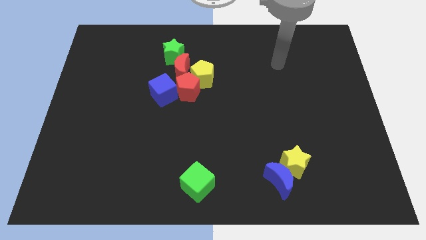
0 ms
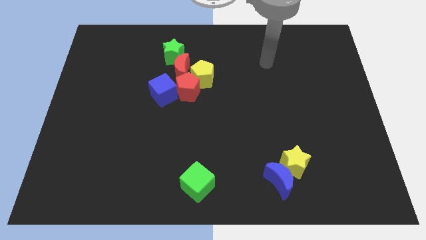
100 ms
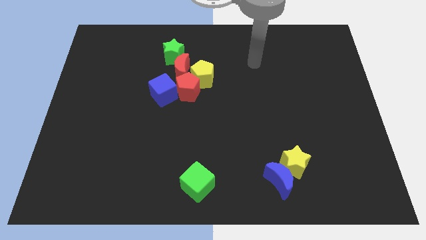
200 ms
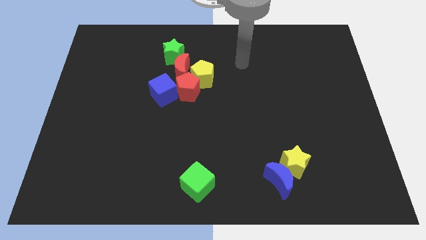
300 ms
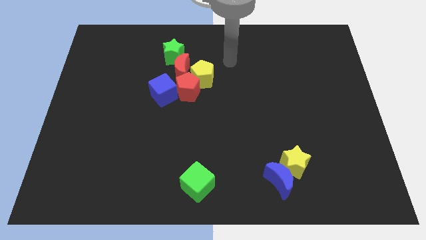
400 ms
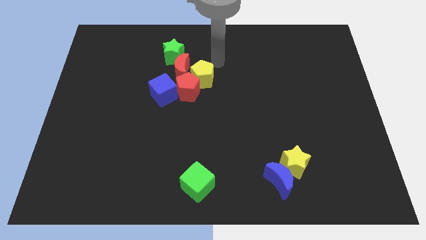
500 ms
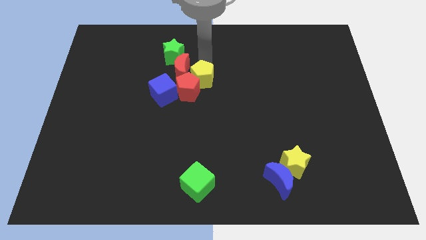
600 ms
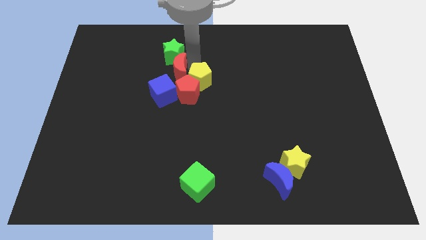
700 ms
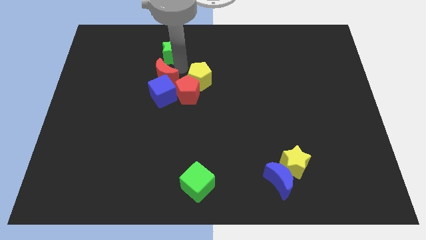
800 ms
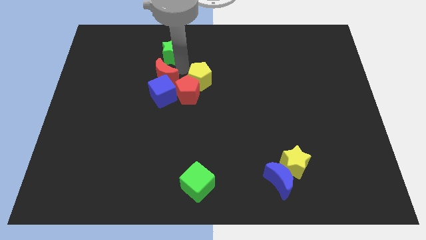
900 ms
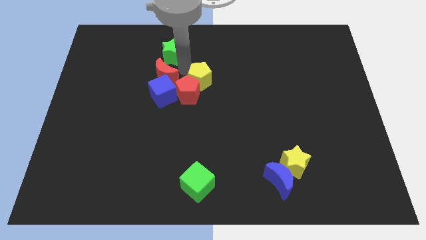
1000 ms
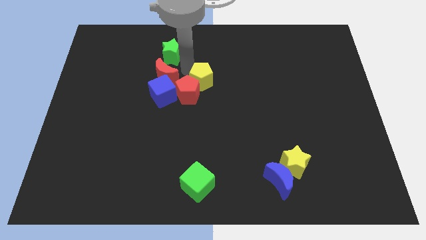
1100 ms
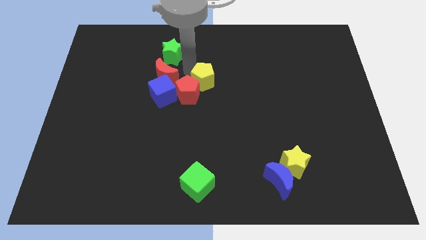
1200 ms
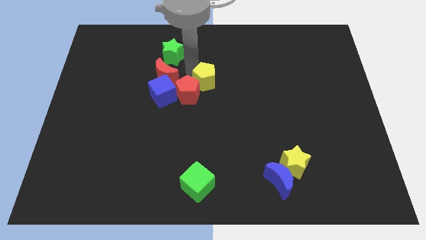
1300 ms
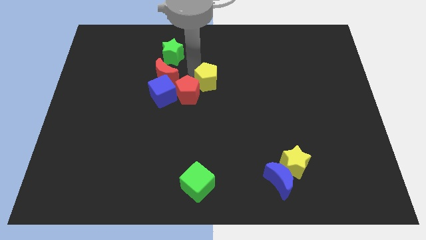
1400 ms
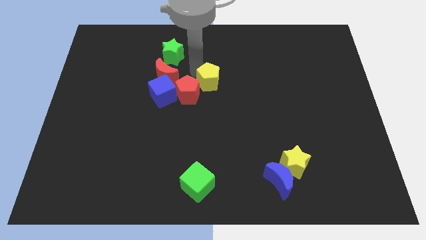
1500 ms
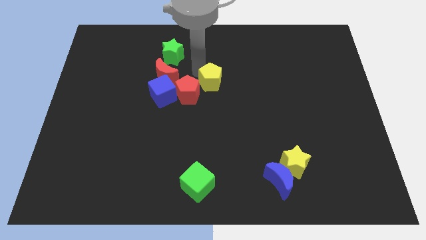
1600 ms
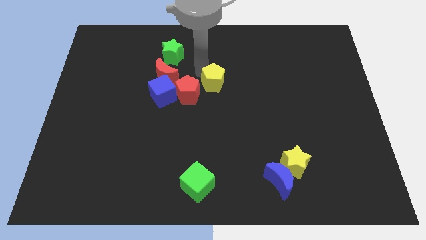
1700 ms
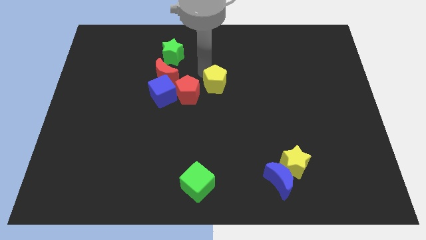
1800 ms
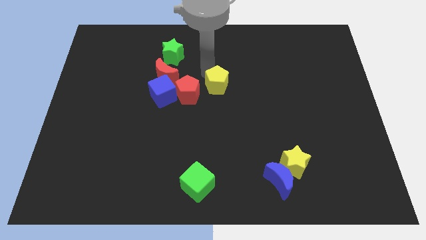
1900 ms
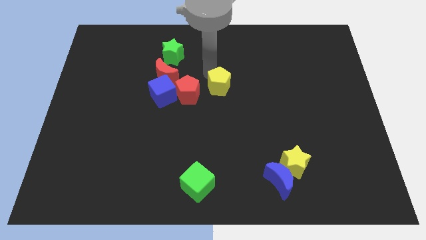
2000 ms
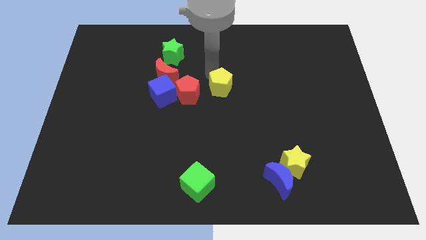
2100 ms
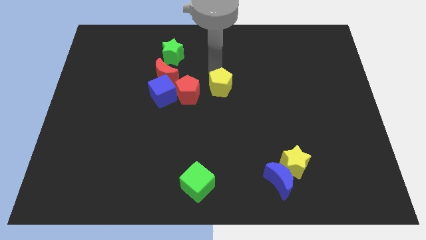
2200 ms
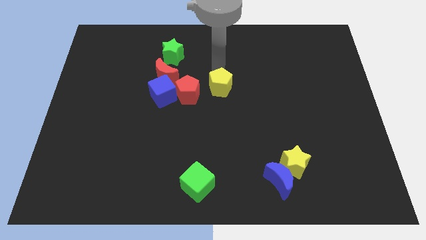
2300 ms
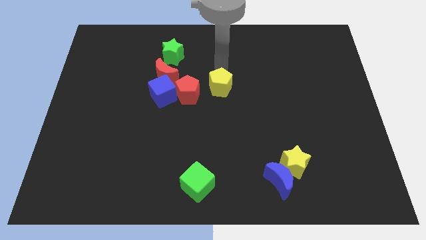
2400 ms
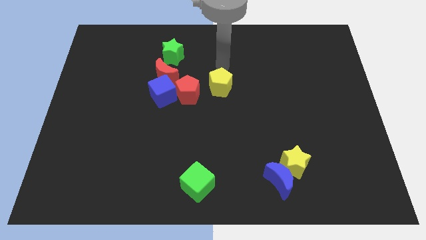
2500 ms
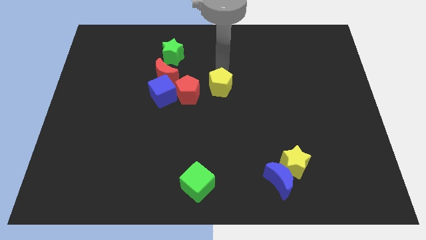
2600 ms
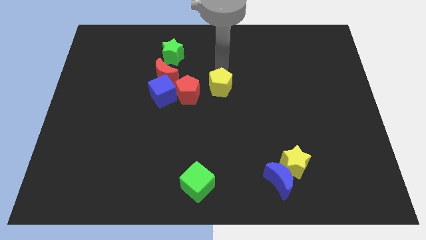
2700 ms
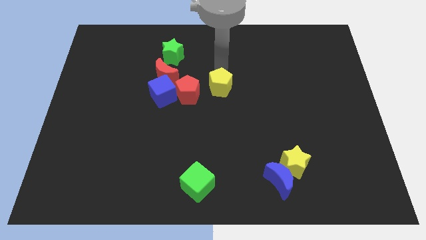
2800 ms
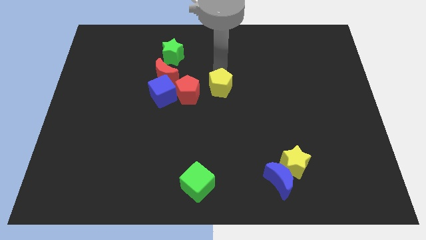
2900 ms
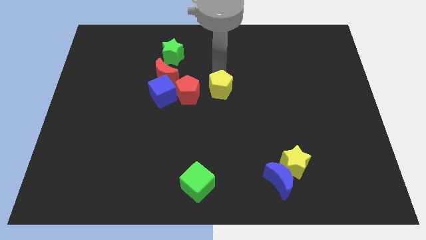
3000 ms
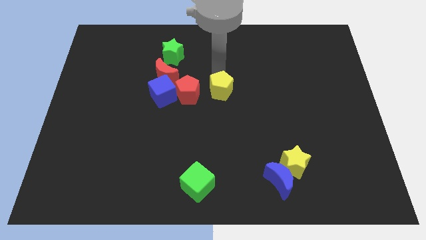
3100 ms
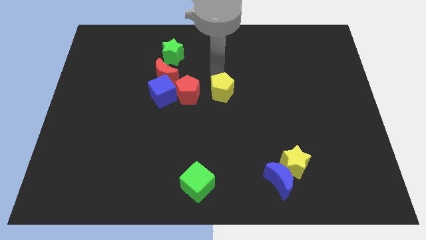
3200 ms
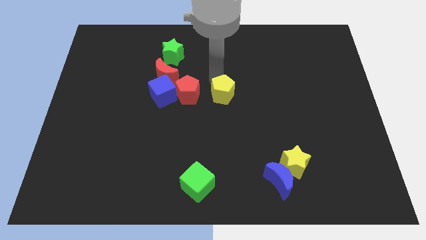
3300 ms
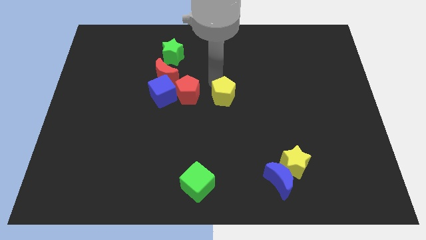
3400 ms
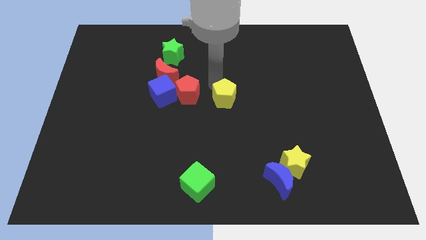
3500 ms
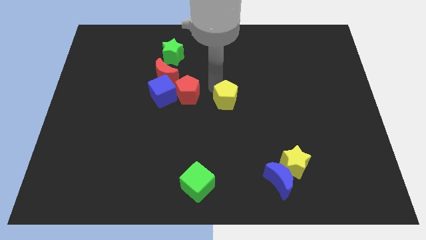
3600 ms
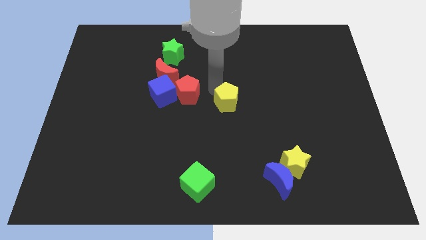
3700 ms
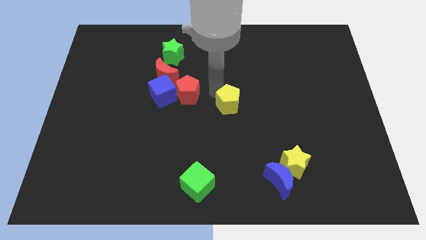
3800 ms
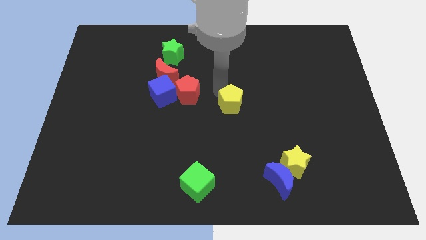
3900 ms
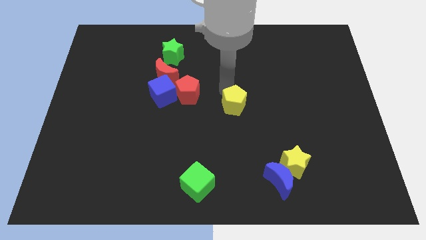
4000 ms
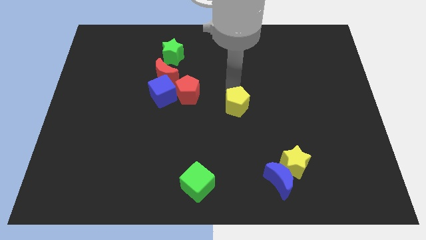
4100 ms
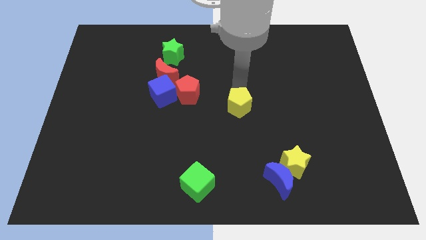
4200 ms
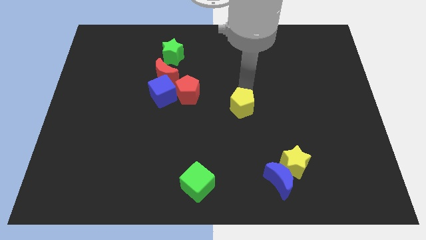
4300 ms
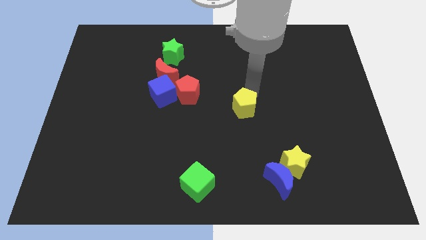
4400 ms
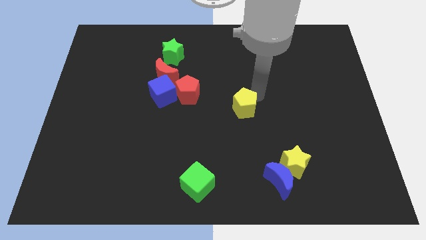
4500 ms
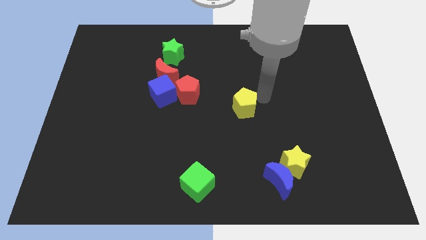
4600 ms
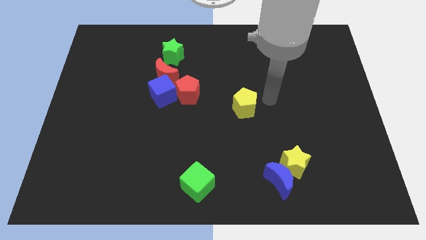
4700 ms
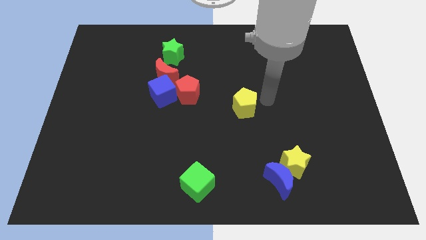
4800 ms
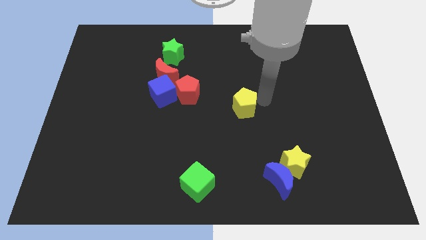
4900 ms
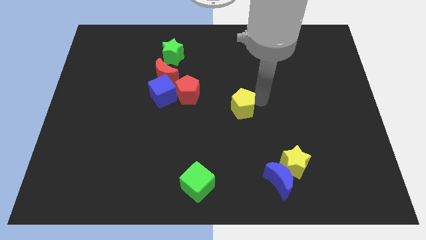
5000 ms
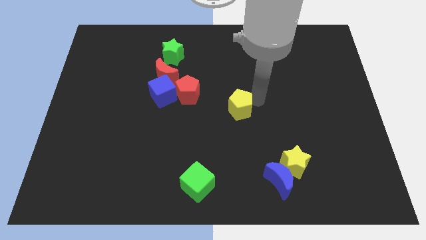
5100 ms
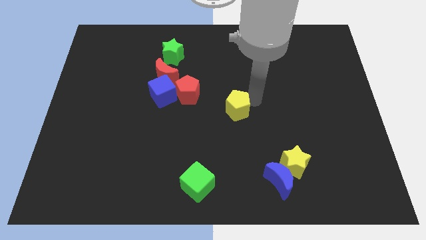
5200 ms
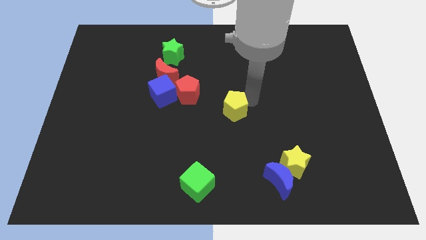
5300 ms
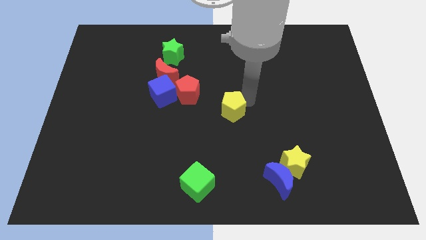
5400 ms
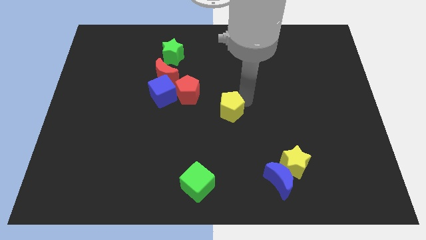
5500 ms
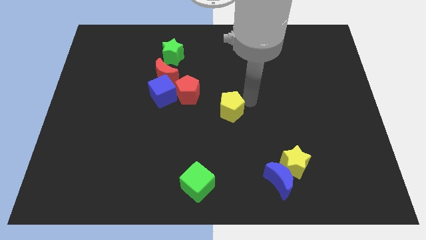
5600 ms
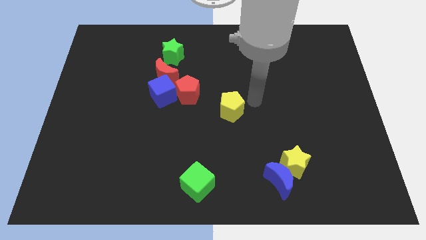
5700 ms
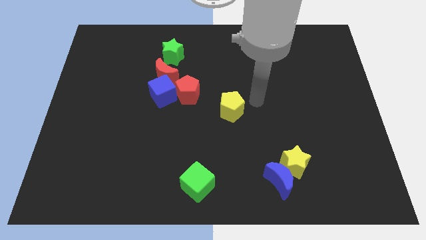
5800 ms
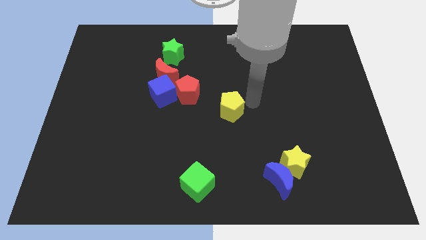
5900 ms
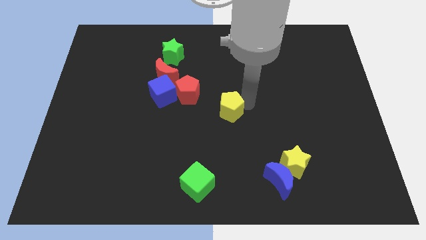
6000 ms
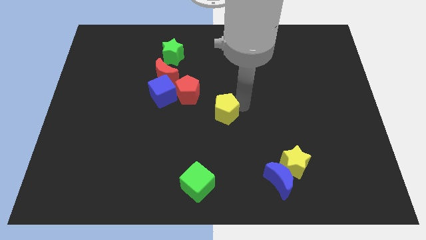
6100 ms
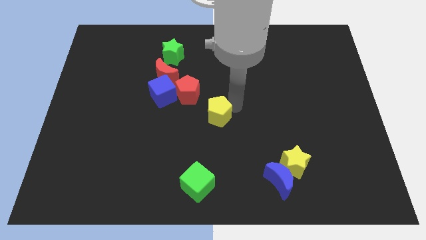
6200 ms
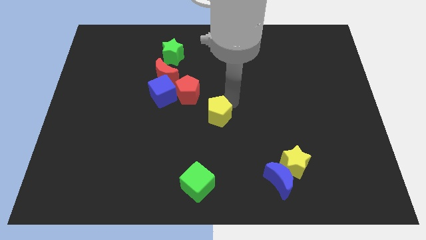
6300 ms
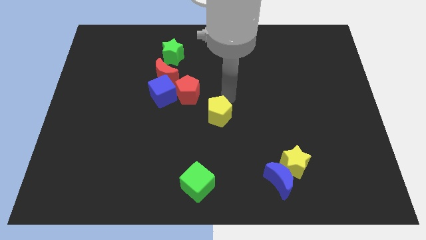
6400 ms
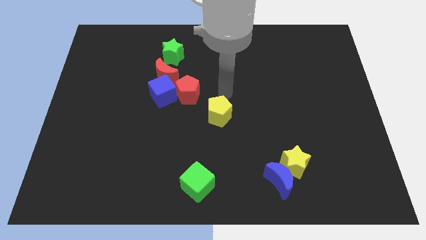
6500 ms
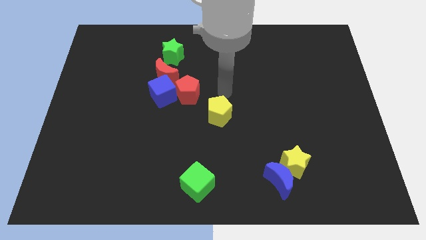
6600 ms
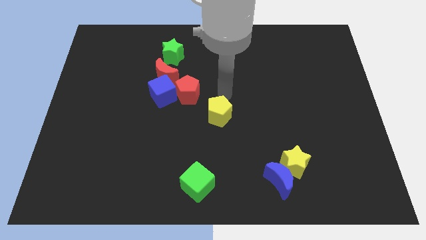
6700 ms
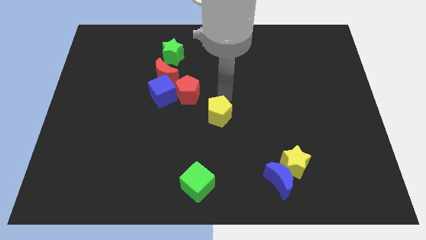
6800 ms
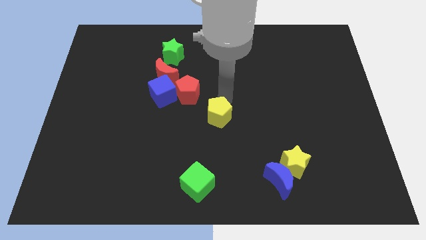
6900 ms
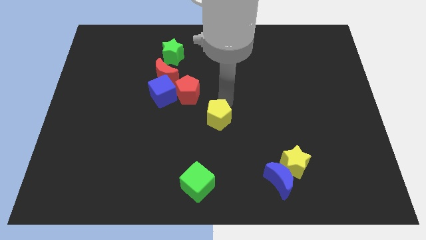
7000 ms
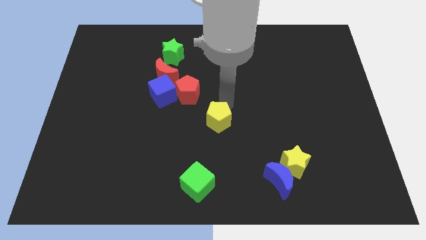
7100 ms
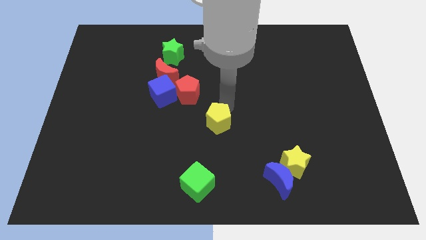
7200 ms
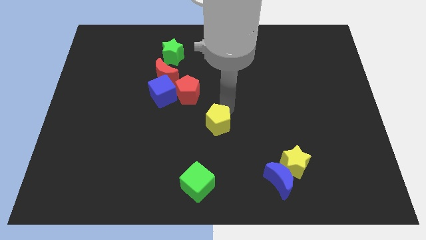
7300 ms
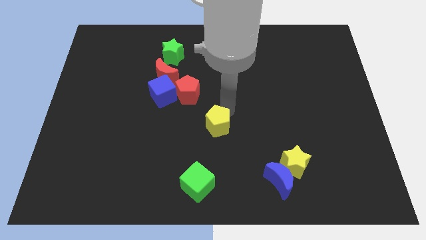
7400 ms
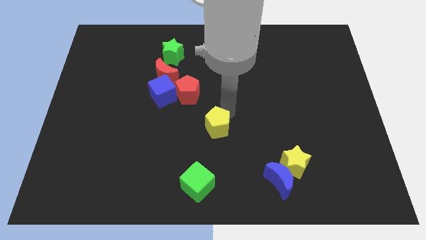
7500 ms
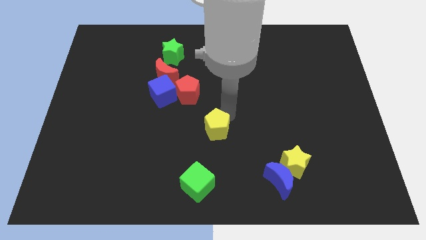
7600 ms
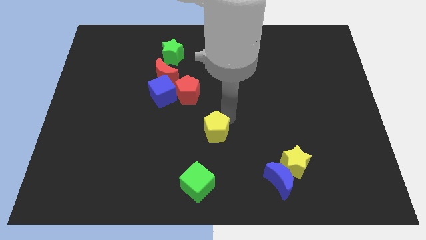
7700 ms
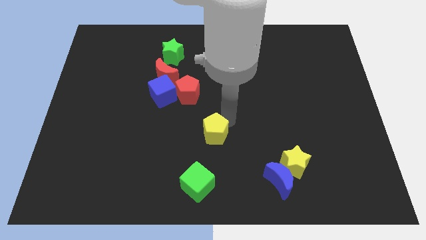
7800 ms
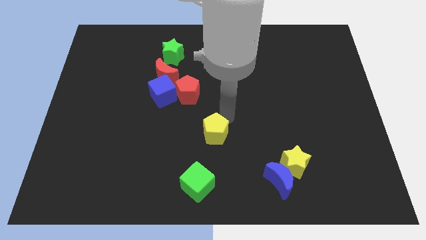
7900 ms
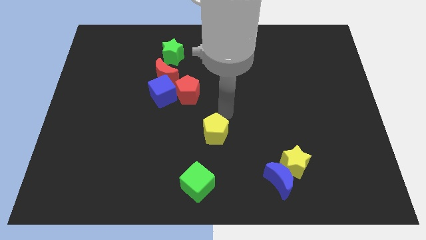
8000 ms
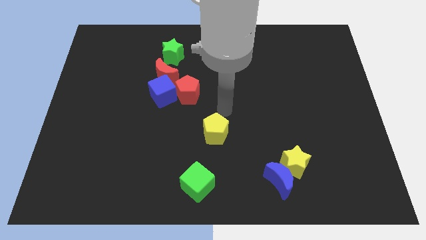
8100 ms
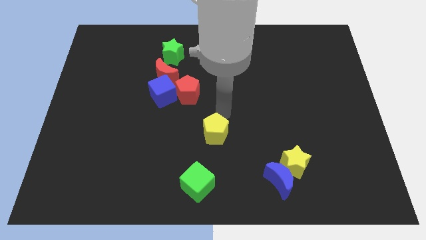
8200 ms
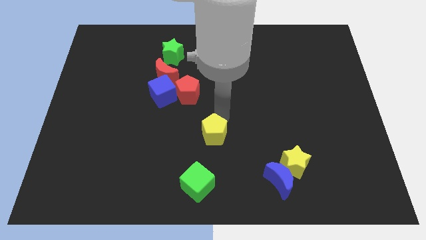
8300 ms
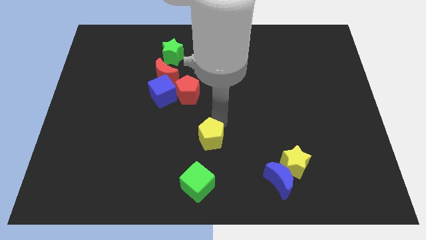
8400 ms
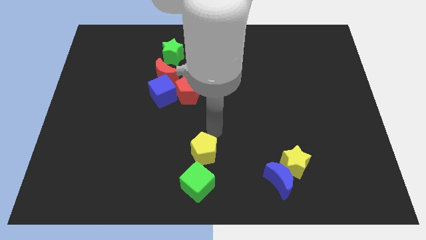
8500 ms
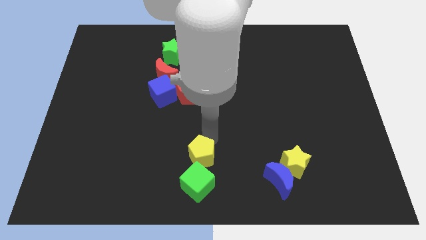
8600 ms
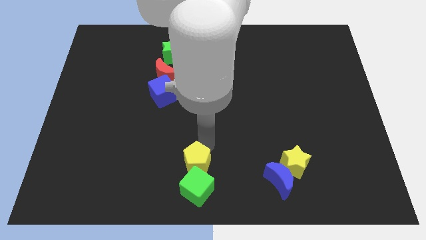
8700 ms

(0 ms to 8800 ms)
slide the yellow pentagon towards the green cube
